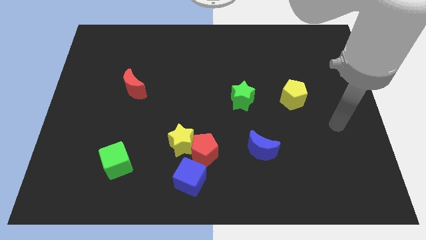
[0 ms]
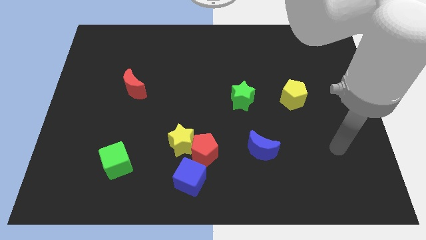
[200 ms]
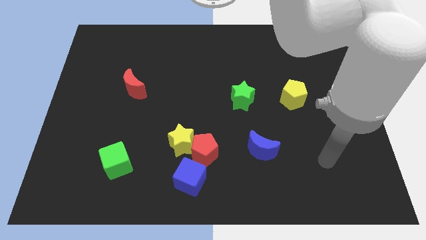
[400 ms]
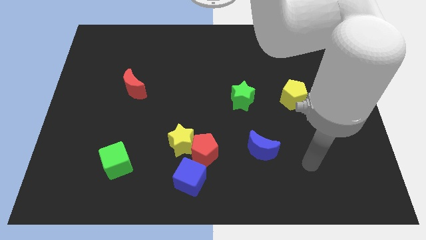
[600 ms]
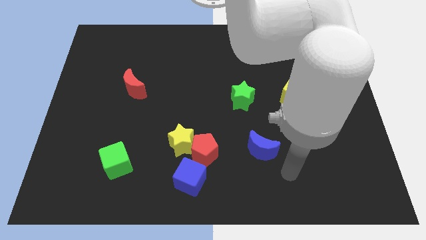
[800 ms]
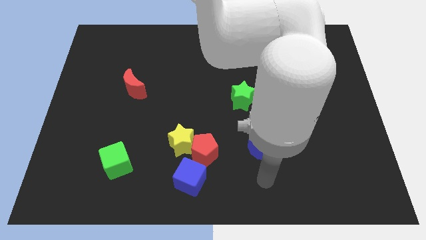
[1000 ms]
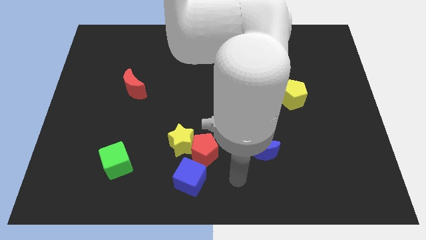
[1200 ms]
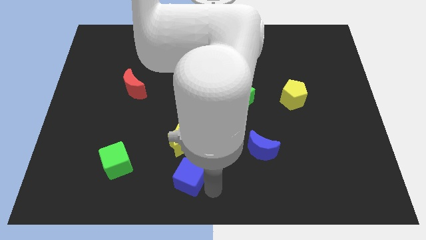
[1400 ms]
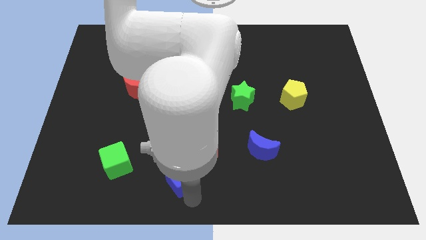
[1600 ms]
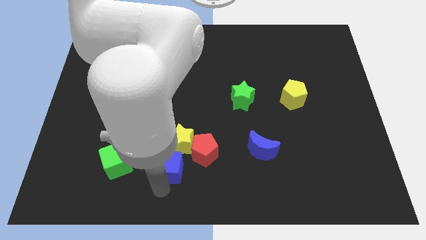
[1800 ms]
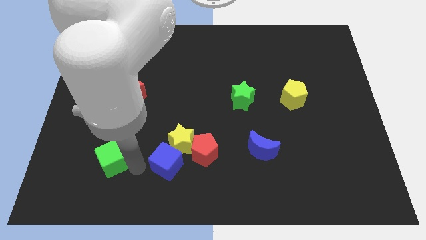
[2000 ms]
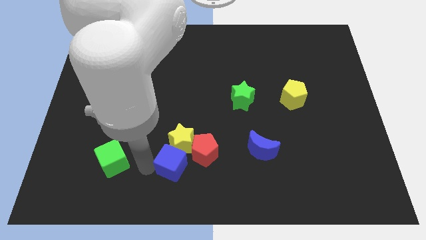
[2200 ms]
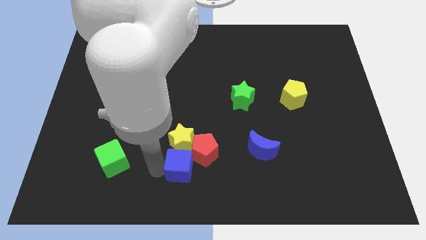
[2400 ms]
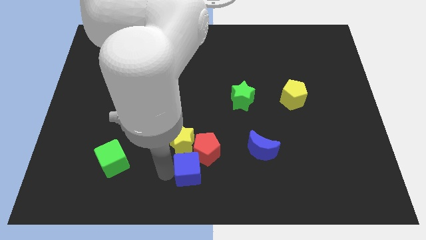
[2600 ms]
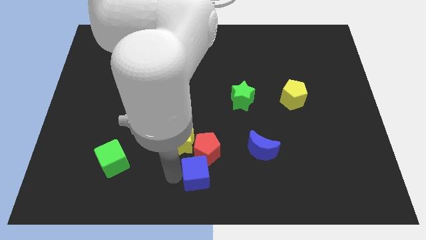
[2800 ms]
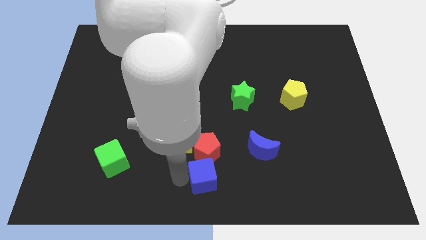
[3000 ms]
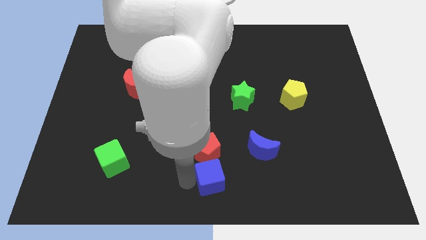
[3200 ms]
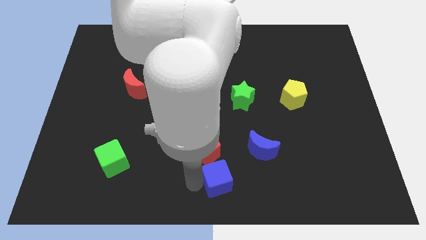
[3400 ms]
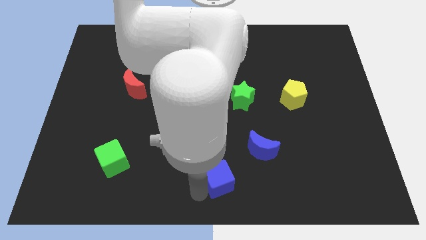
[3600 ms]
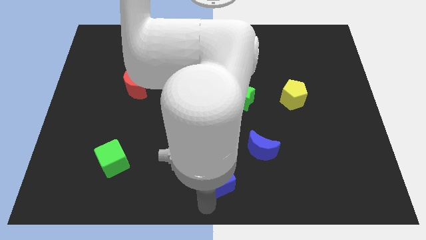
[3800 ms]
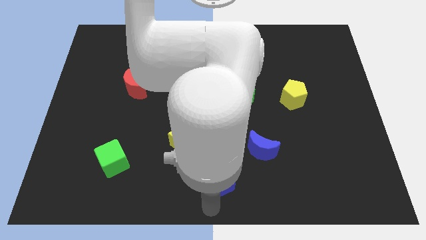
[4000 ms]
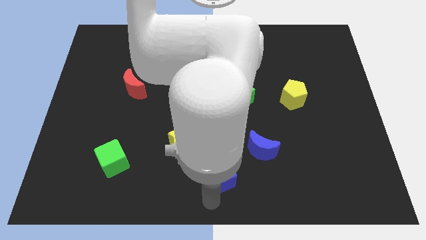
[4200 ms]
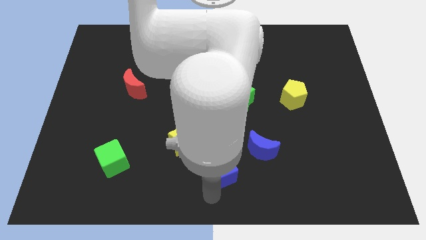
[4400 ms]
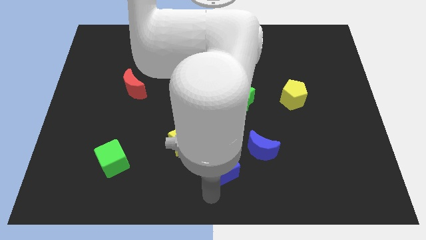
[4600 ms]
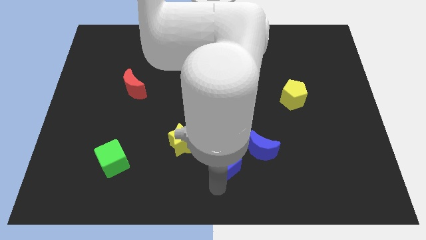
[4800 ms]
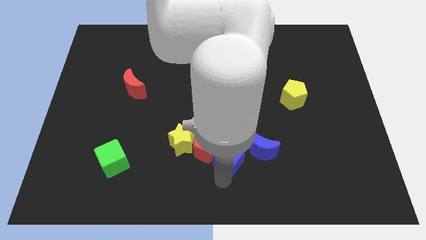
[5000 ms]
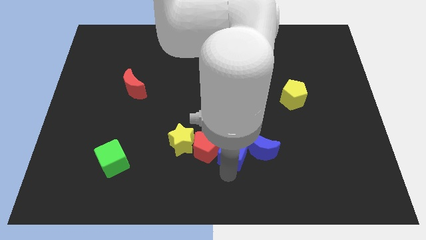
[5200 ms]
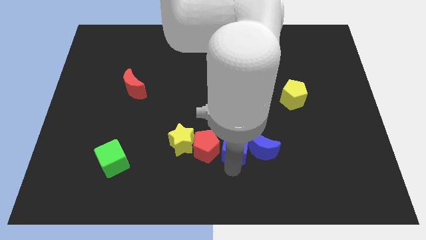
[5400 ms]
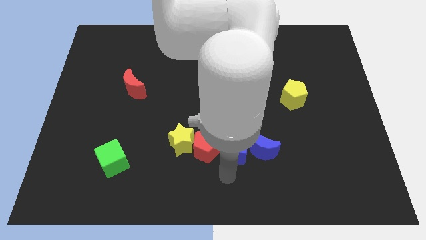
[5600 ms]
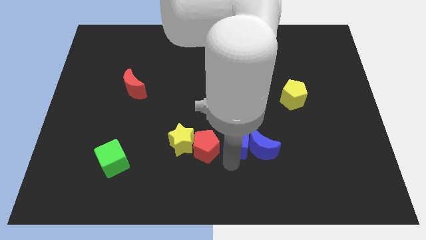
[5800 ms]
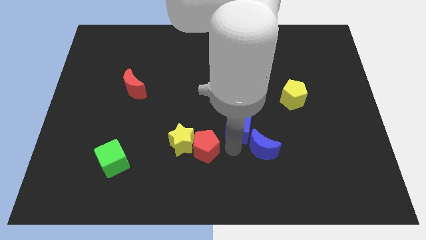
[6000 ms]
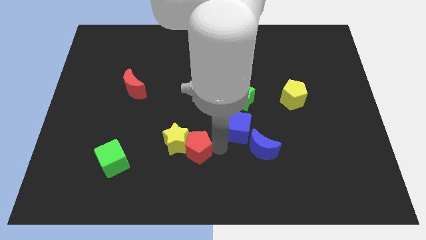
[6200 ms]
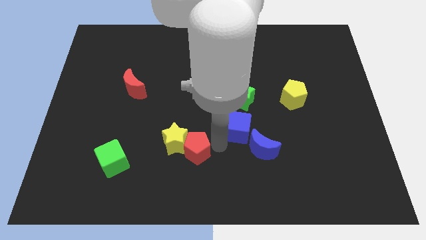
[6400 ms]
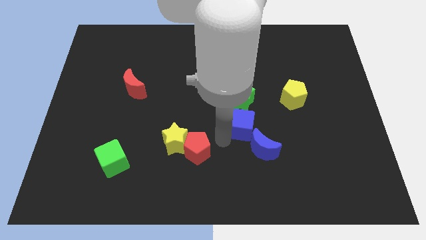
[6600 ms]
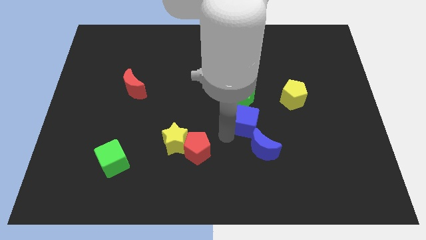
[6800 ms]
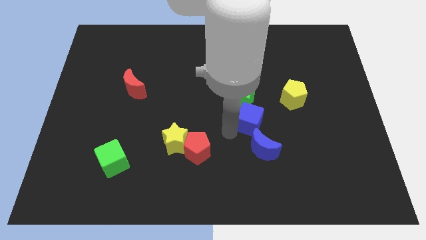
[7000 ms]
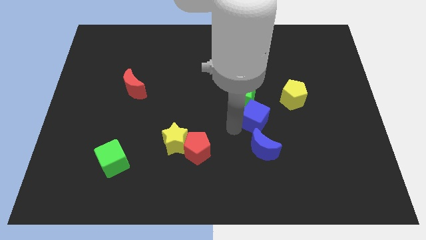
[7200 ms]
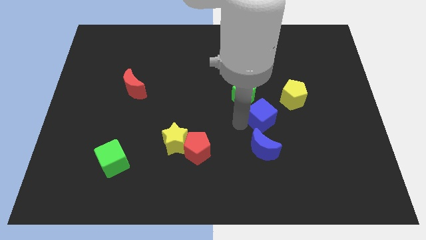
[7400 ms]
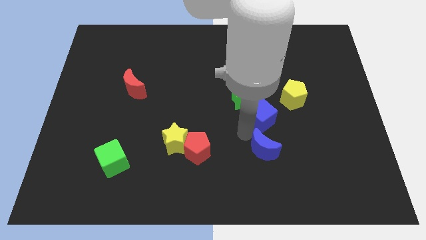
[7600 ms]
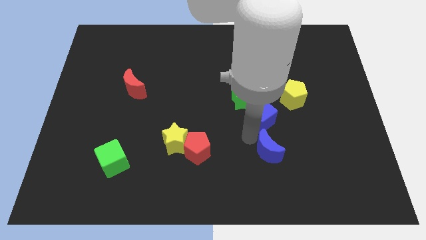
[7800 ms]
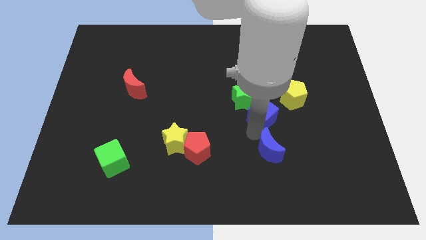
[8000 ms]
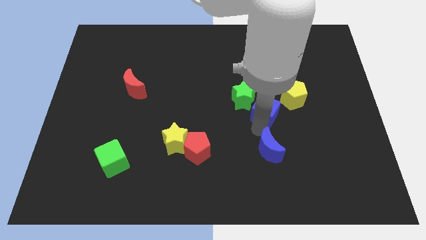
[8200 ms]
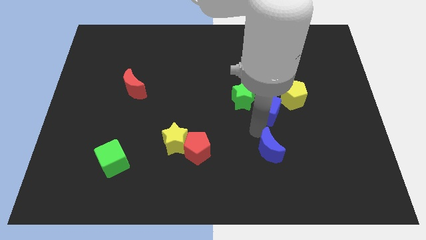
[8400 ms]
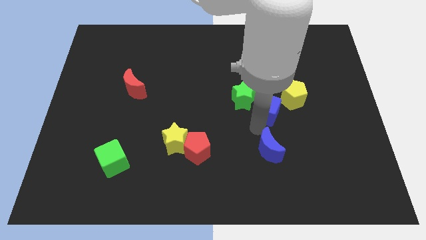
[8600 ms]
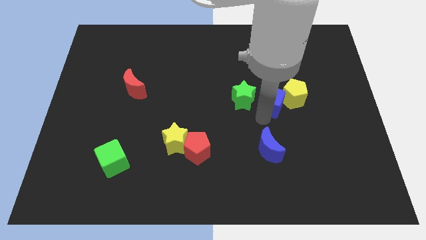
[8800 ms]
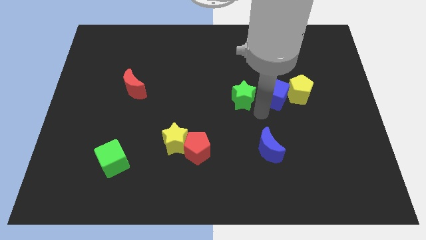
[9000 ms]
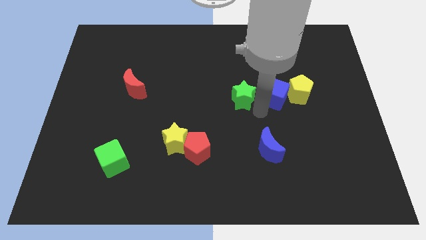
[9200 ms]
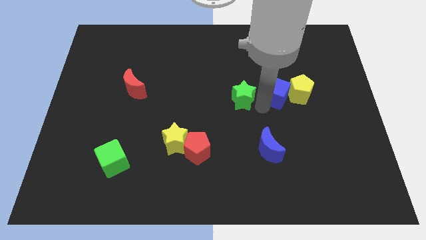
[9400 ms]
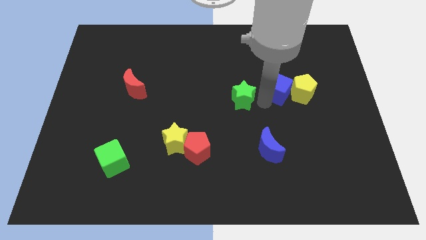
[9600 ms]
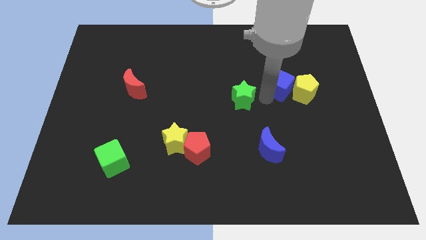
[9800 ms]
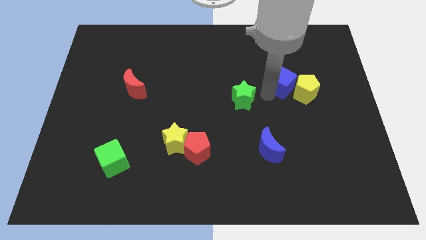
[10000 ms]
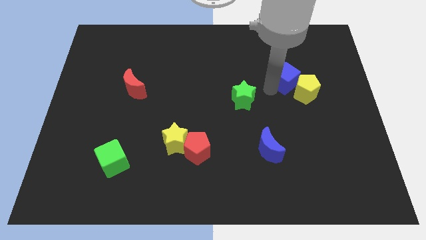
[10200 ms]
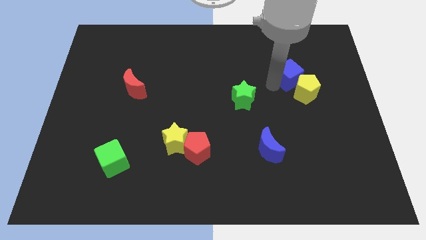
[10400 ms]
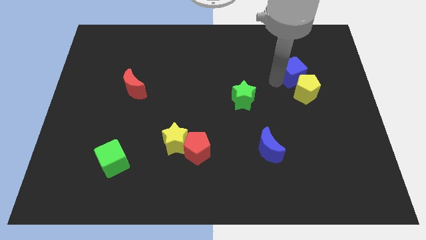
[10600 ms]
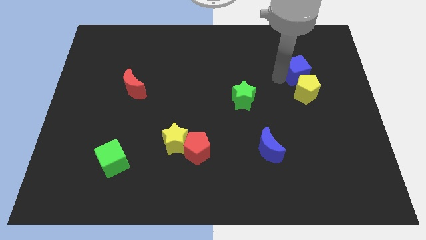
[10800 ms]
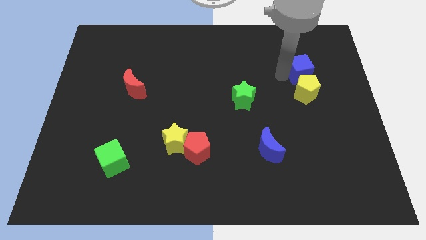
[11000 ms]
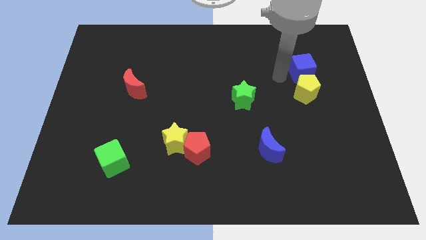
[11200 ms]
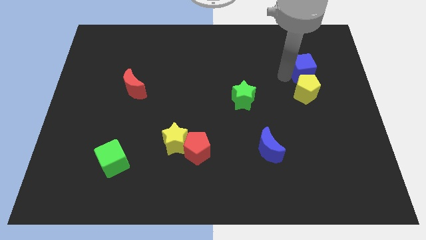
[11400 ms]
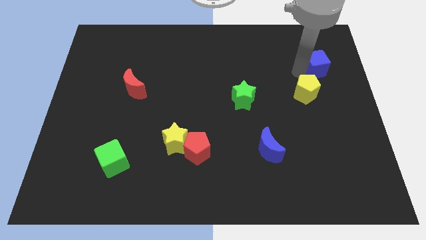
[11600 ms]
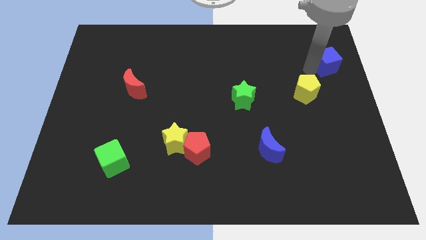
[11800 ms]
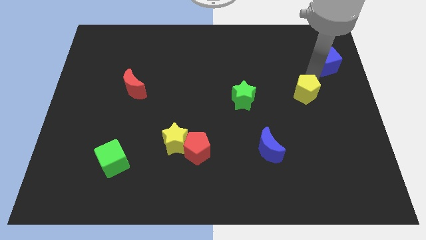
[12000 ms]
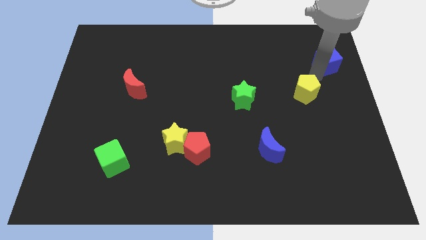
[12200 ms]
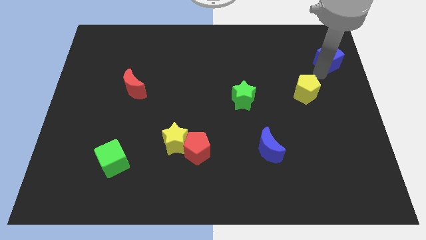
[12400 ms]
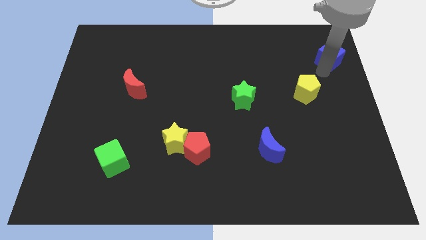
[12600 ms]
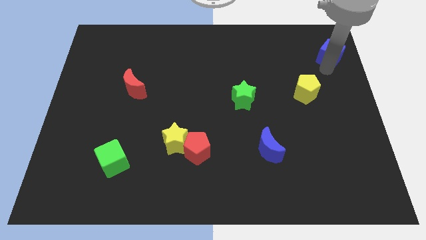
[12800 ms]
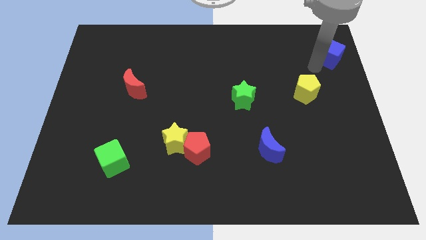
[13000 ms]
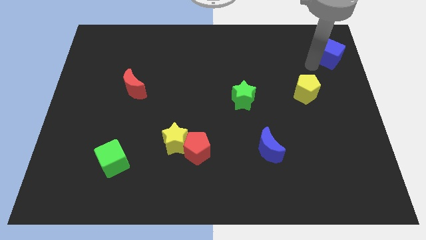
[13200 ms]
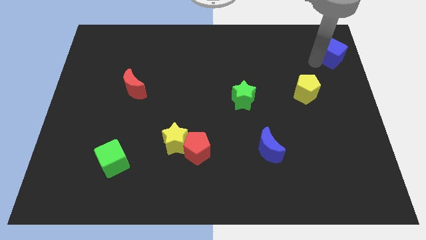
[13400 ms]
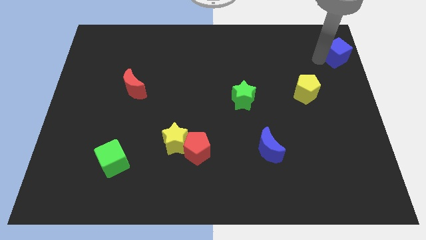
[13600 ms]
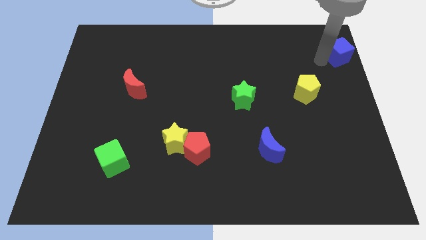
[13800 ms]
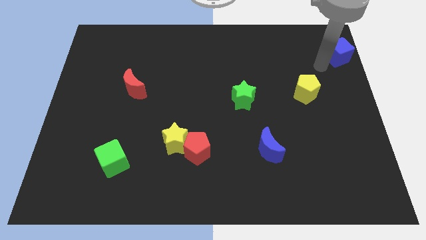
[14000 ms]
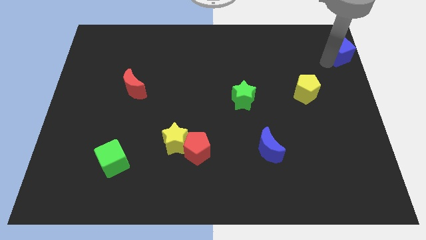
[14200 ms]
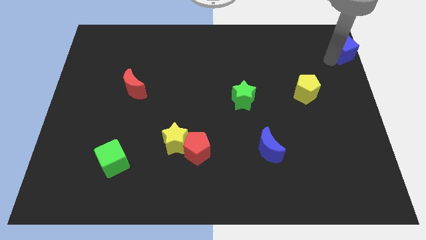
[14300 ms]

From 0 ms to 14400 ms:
push the blue cube to the upper right corner
